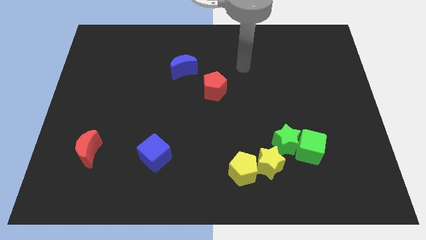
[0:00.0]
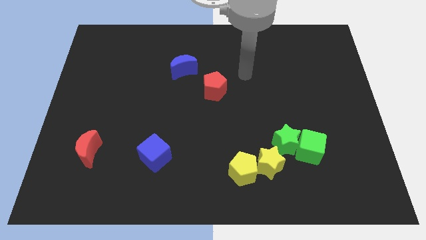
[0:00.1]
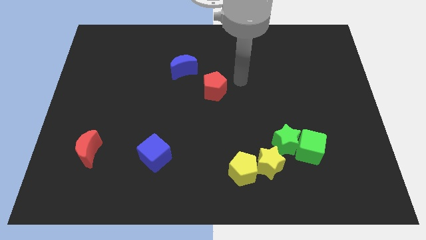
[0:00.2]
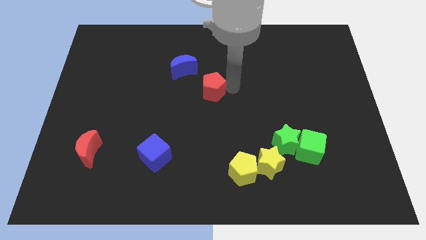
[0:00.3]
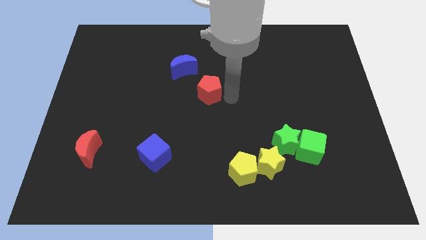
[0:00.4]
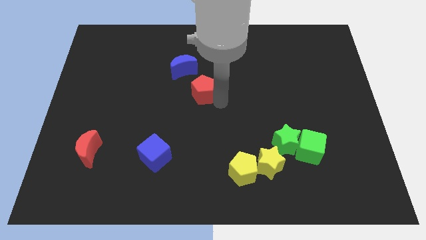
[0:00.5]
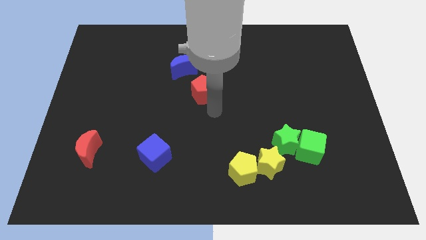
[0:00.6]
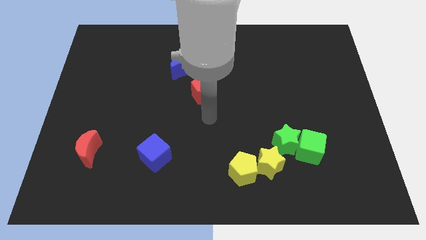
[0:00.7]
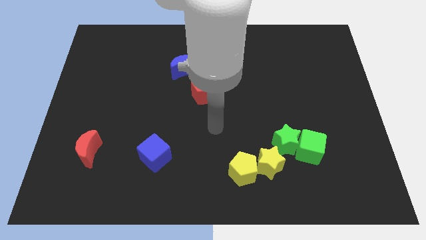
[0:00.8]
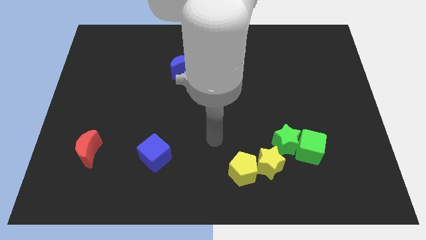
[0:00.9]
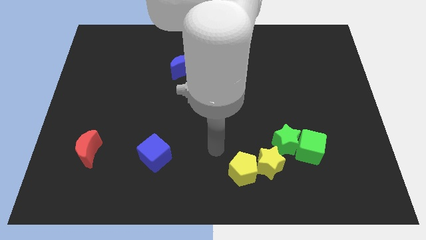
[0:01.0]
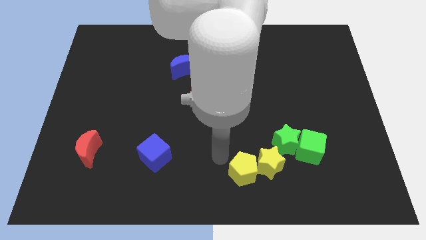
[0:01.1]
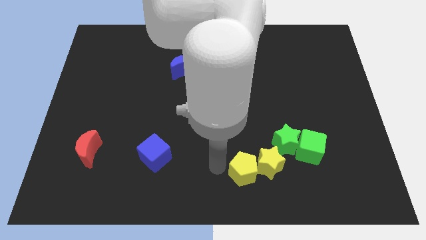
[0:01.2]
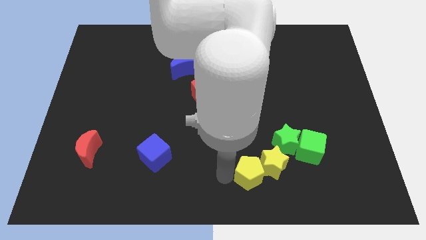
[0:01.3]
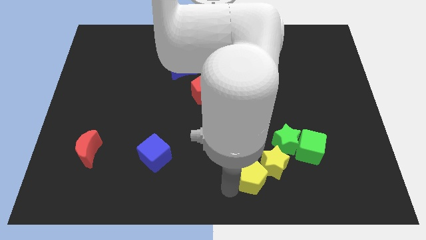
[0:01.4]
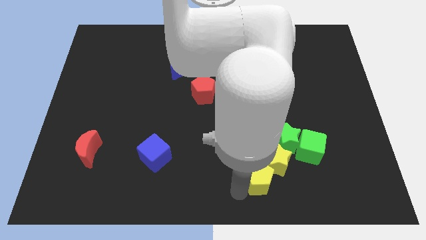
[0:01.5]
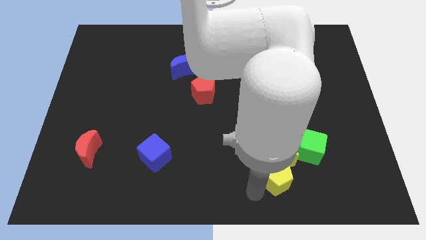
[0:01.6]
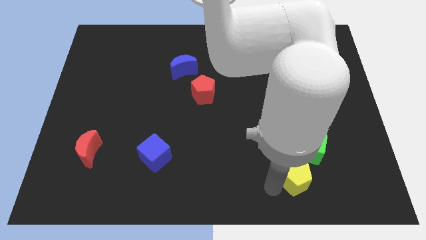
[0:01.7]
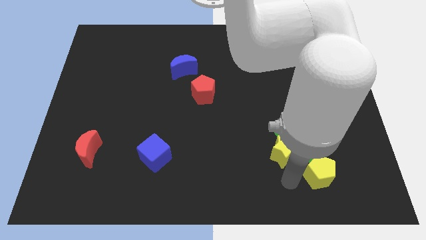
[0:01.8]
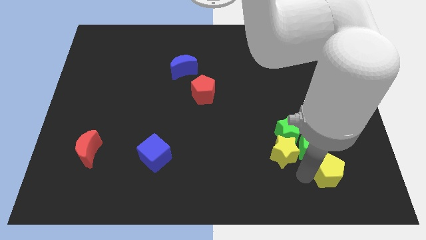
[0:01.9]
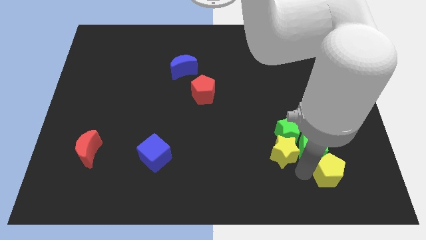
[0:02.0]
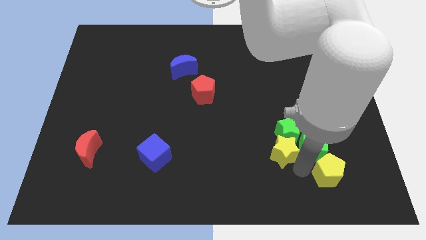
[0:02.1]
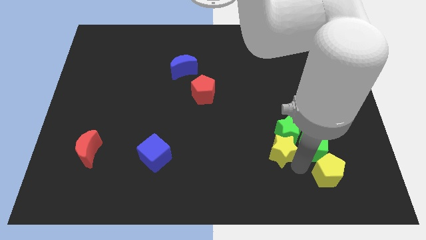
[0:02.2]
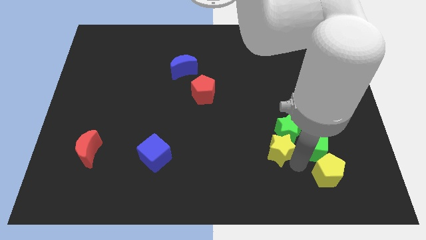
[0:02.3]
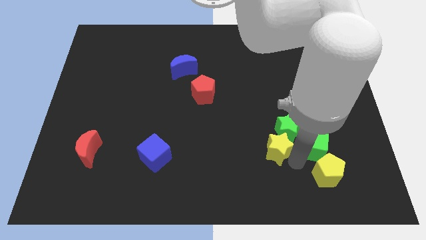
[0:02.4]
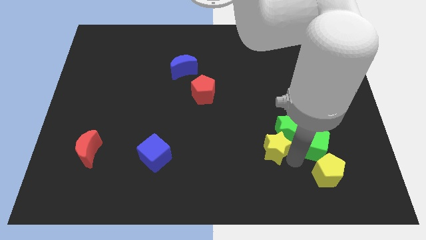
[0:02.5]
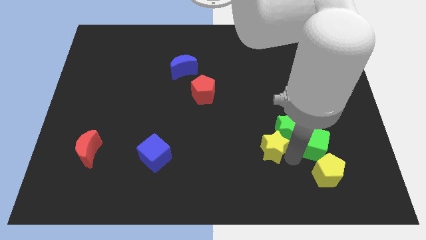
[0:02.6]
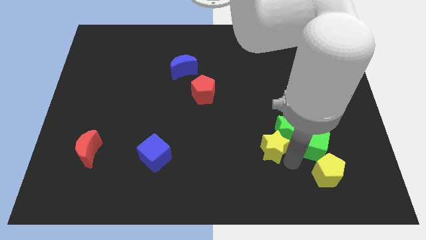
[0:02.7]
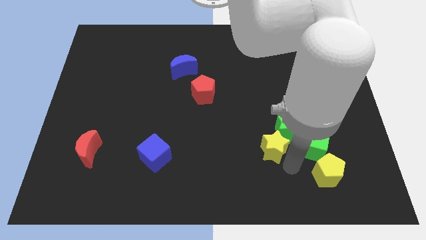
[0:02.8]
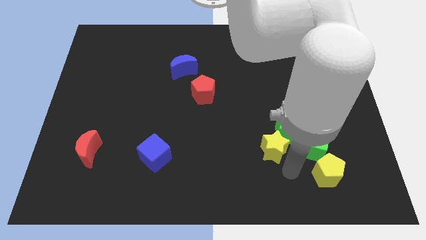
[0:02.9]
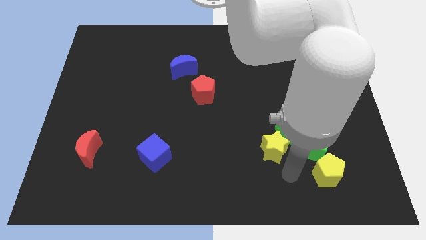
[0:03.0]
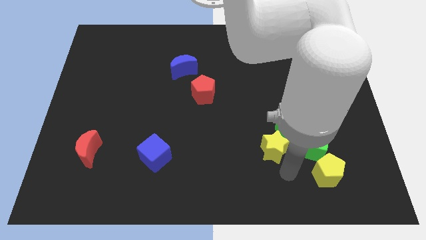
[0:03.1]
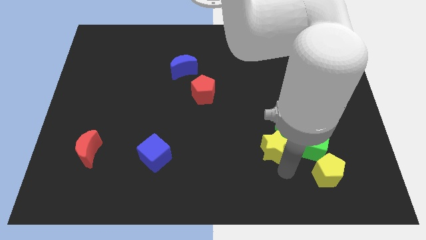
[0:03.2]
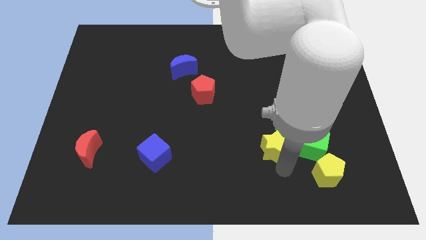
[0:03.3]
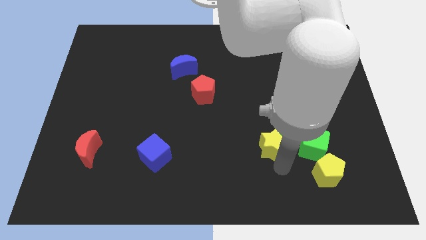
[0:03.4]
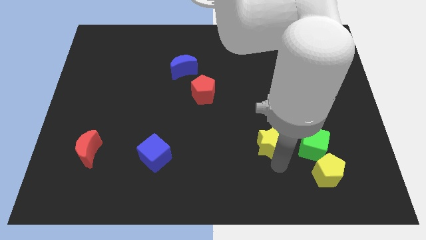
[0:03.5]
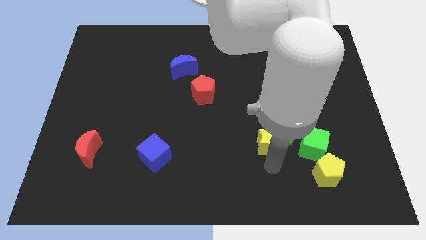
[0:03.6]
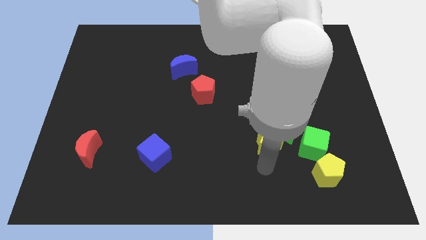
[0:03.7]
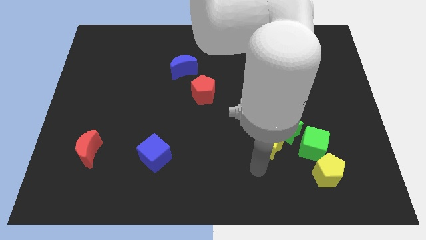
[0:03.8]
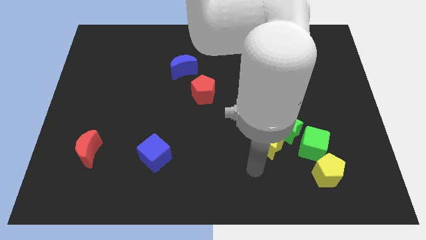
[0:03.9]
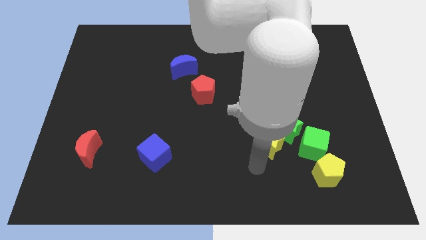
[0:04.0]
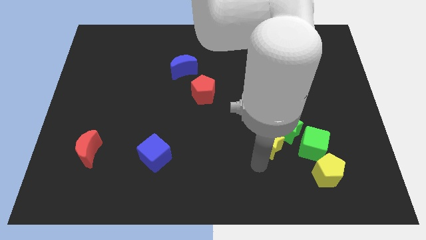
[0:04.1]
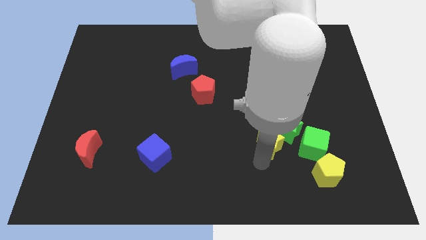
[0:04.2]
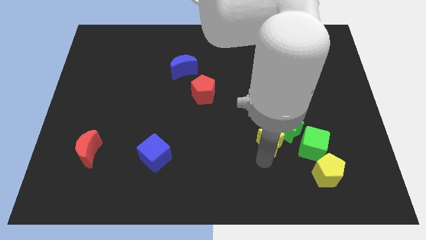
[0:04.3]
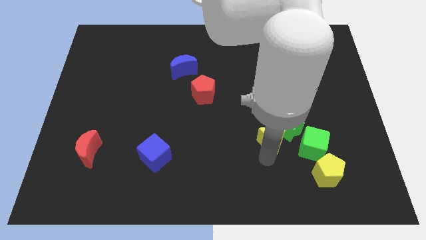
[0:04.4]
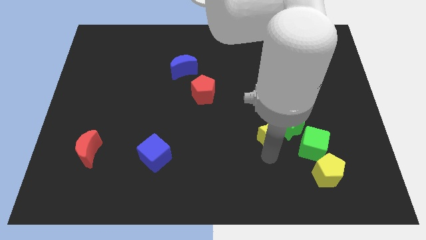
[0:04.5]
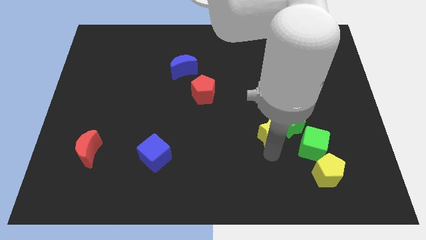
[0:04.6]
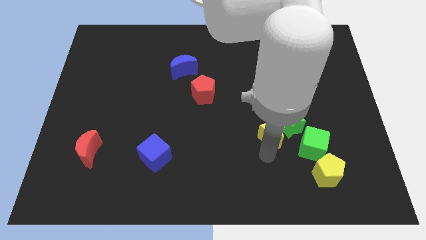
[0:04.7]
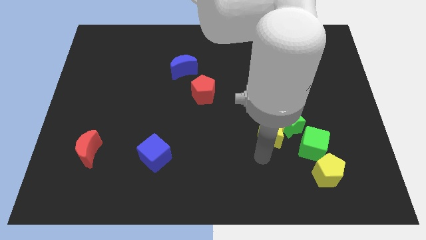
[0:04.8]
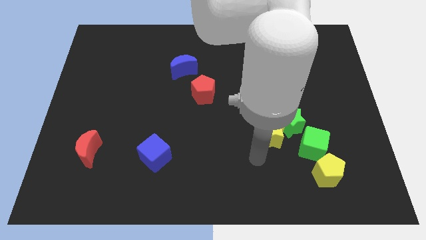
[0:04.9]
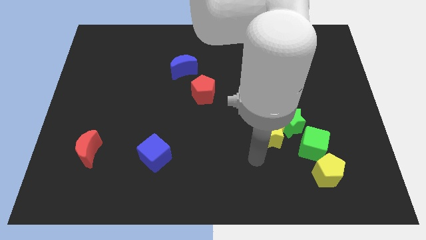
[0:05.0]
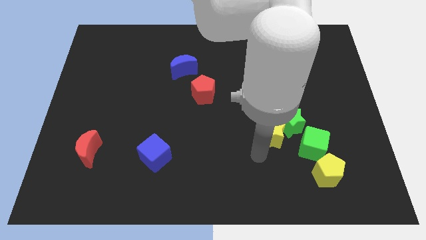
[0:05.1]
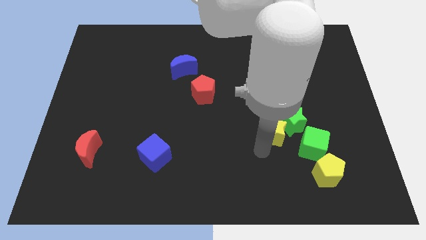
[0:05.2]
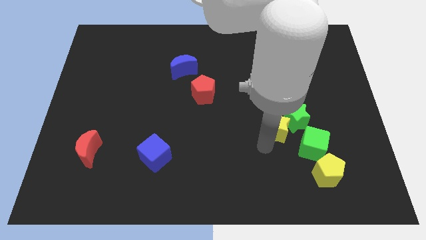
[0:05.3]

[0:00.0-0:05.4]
slightly push the yellow star diagonally up and right

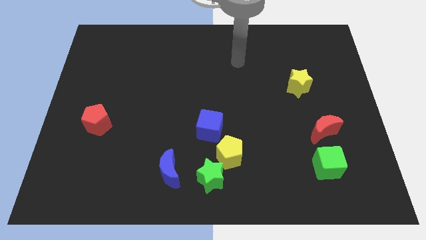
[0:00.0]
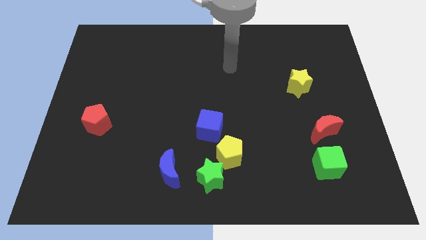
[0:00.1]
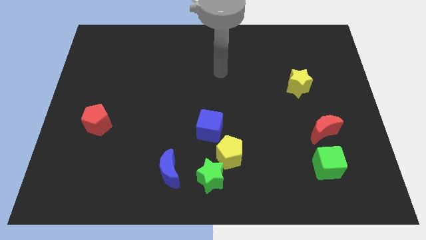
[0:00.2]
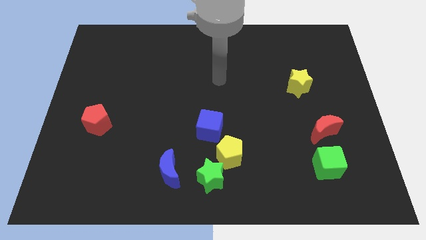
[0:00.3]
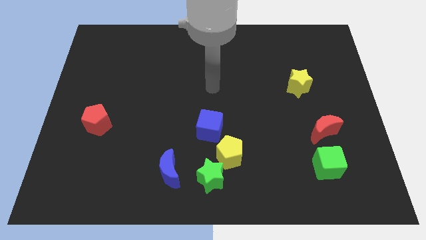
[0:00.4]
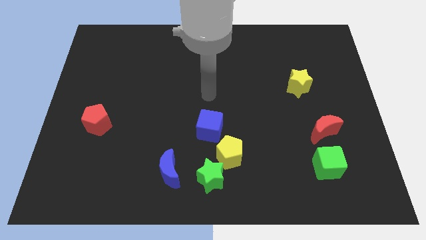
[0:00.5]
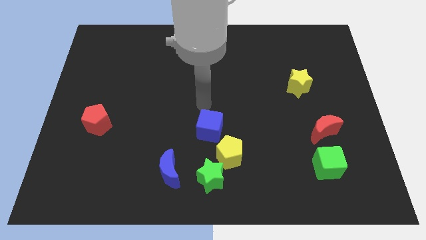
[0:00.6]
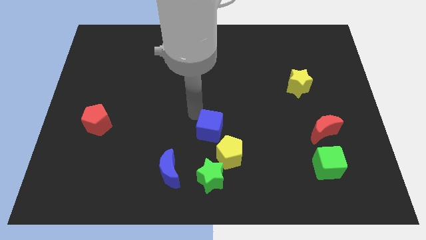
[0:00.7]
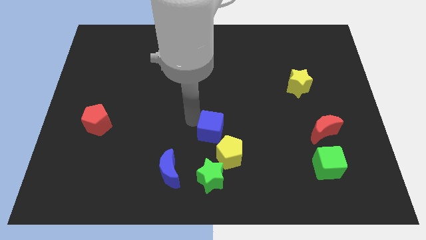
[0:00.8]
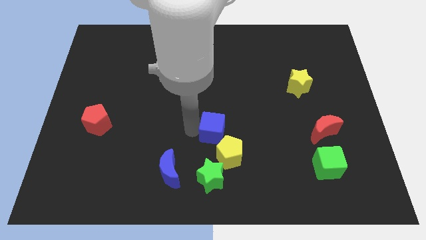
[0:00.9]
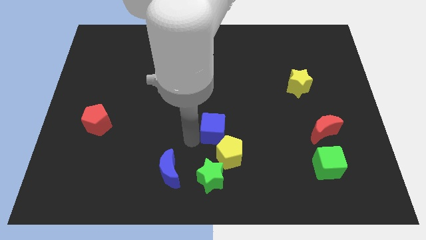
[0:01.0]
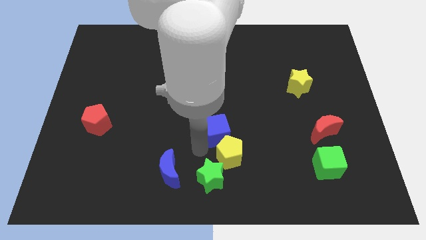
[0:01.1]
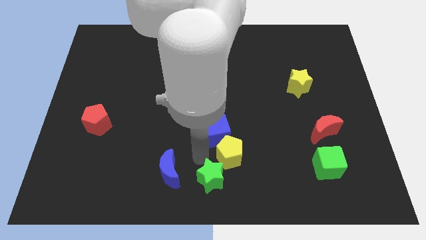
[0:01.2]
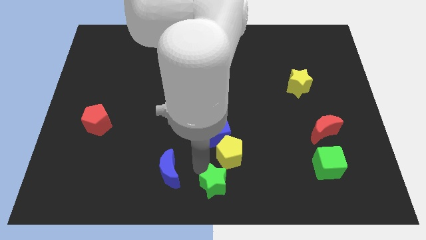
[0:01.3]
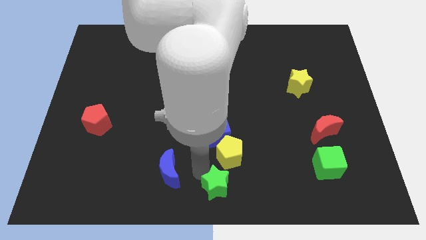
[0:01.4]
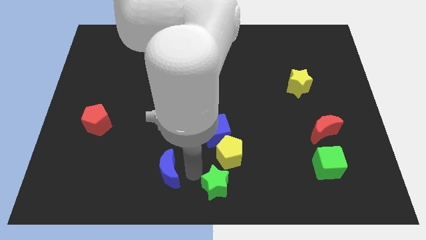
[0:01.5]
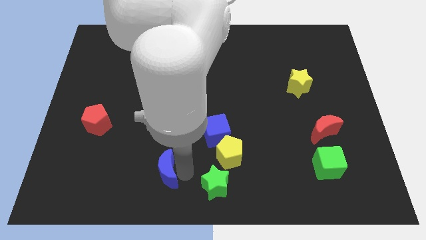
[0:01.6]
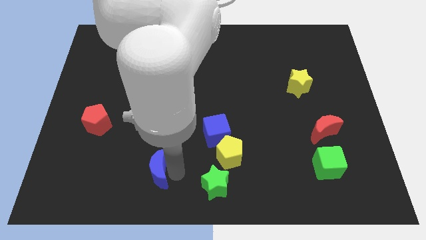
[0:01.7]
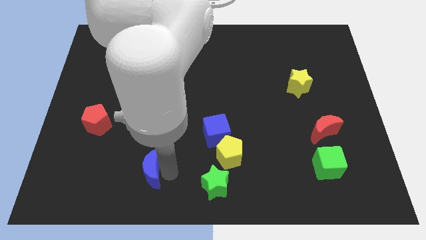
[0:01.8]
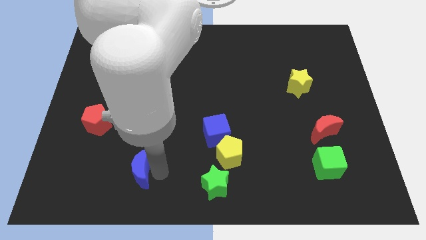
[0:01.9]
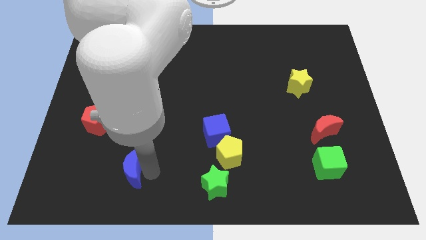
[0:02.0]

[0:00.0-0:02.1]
slightly move the blue moon to the left
